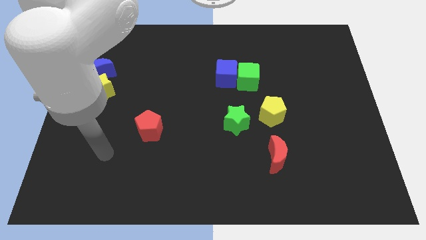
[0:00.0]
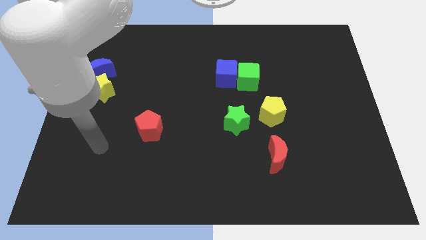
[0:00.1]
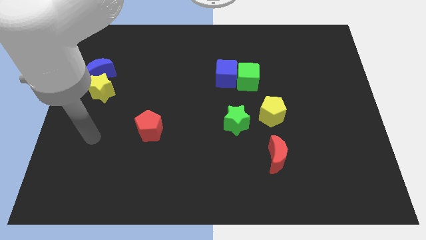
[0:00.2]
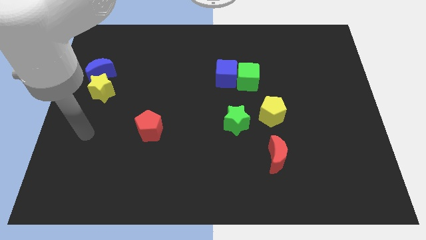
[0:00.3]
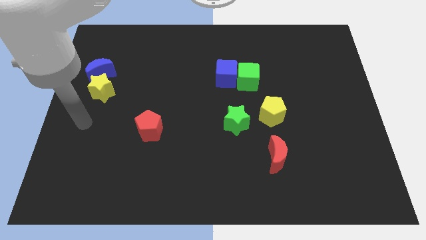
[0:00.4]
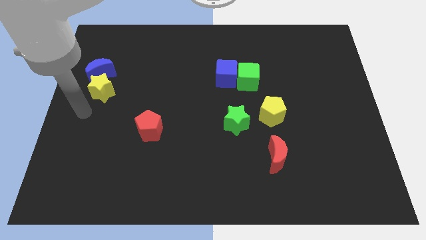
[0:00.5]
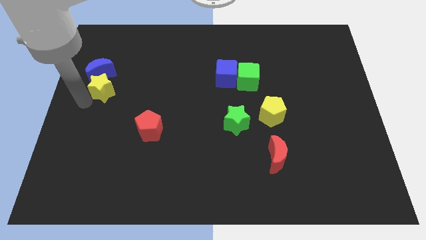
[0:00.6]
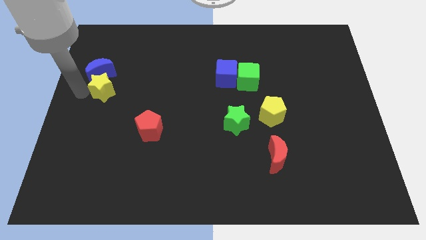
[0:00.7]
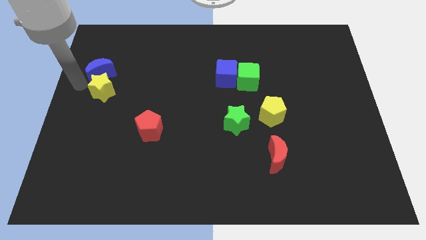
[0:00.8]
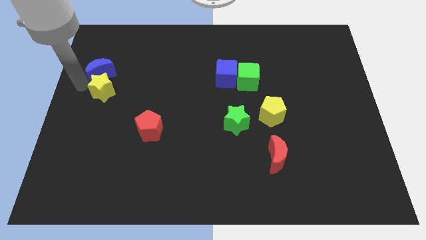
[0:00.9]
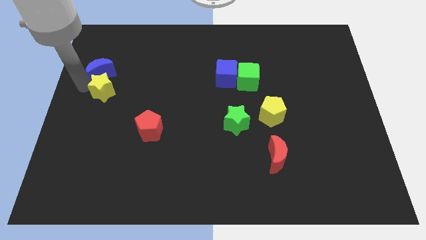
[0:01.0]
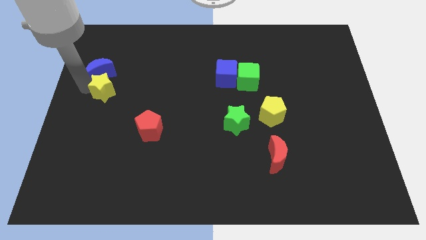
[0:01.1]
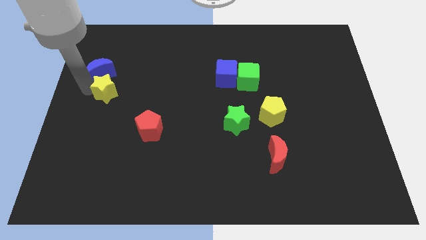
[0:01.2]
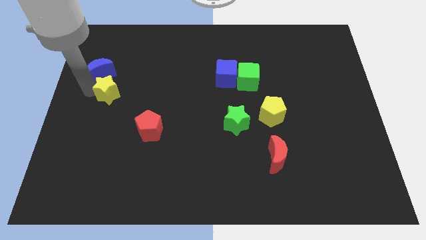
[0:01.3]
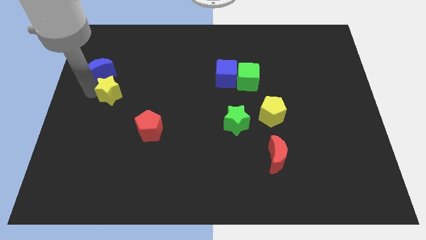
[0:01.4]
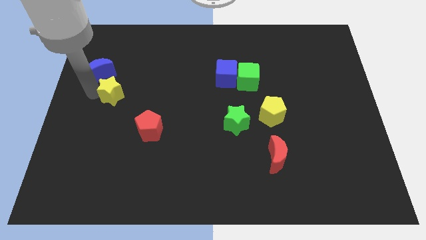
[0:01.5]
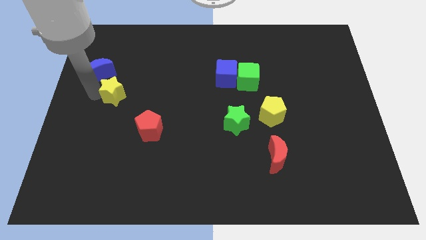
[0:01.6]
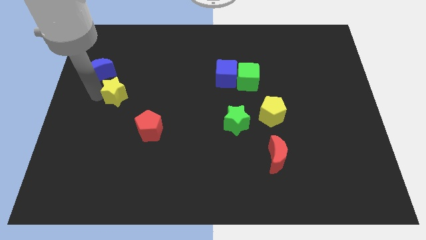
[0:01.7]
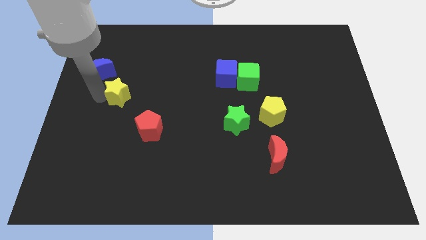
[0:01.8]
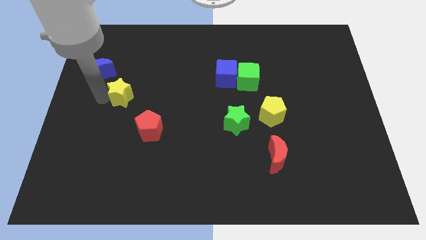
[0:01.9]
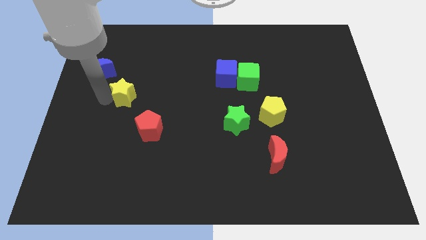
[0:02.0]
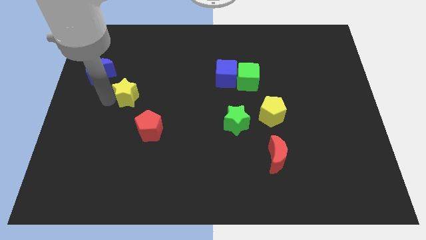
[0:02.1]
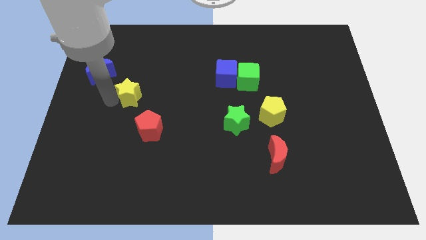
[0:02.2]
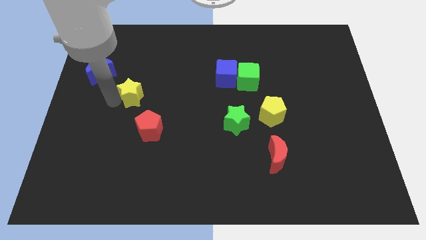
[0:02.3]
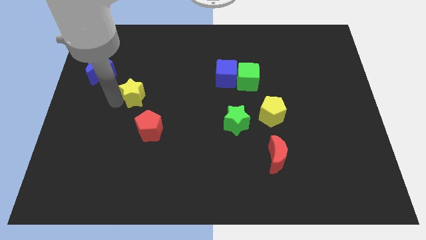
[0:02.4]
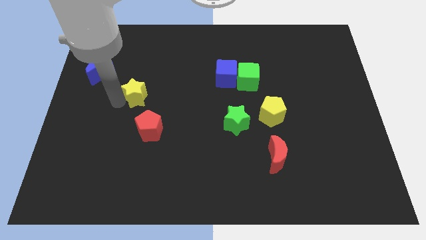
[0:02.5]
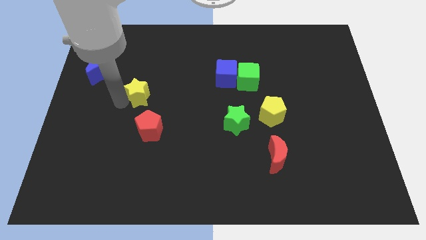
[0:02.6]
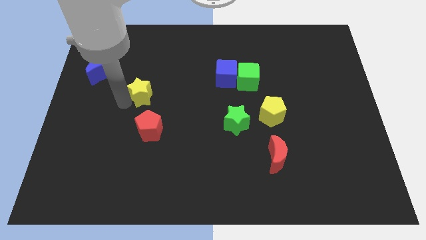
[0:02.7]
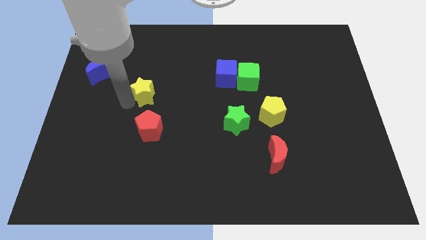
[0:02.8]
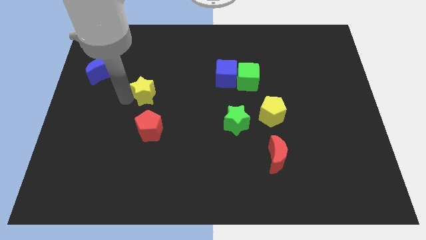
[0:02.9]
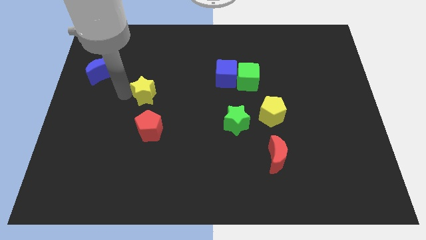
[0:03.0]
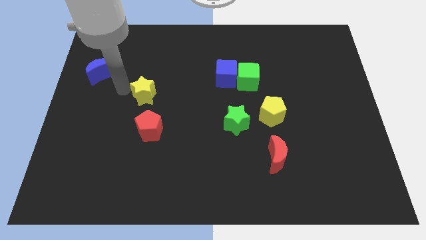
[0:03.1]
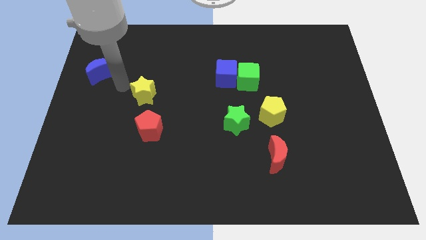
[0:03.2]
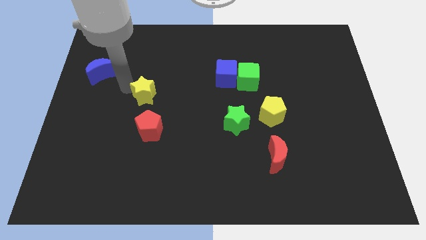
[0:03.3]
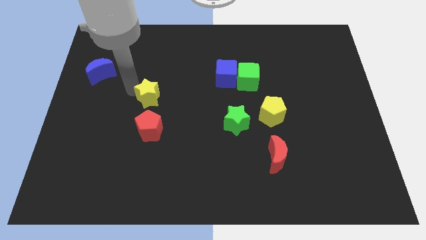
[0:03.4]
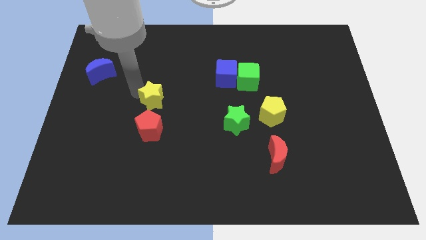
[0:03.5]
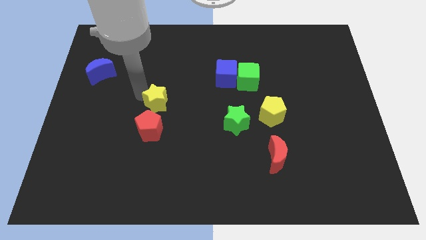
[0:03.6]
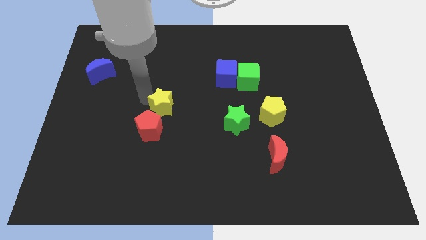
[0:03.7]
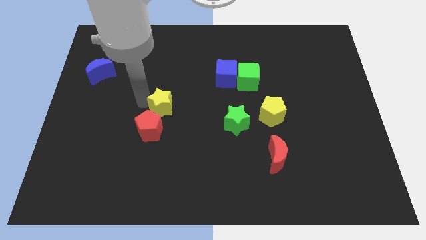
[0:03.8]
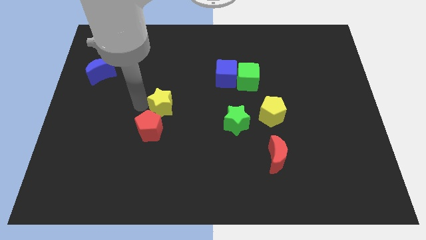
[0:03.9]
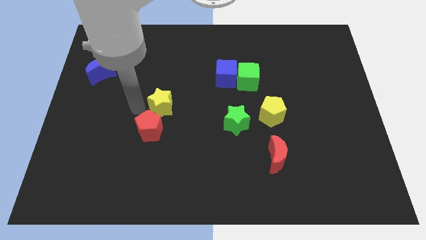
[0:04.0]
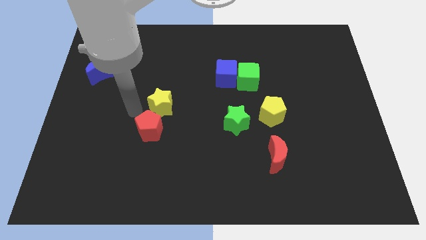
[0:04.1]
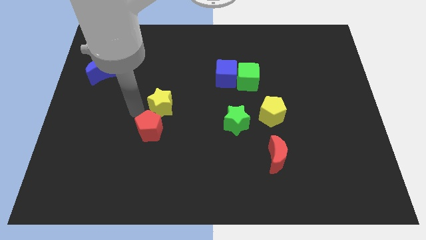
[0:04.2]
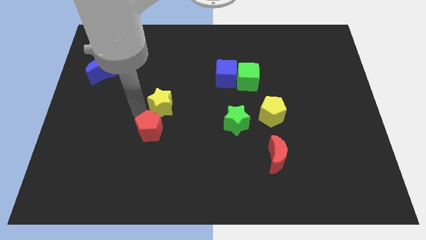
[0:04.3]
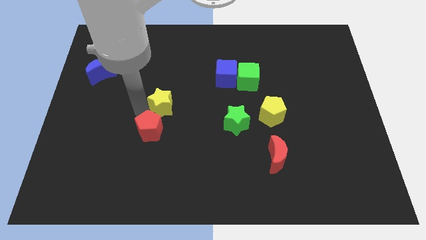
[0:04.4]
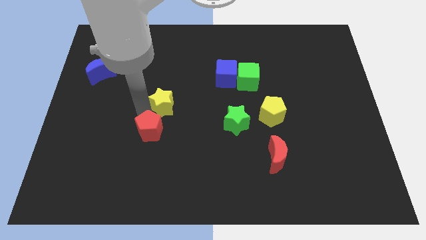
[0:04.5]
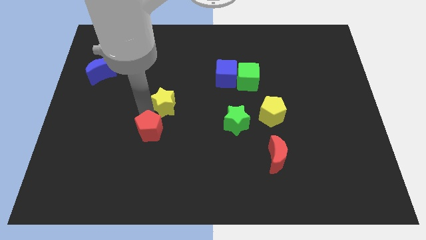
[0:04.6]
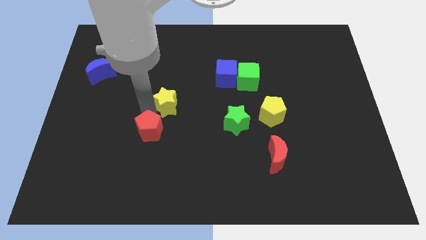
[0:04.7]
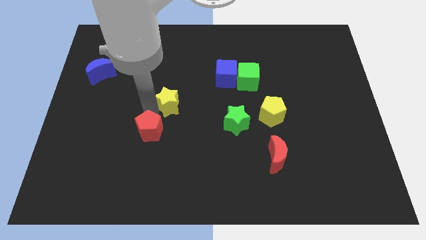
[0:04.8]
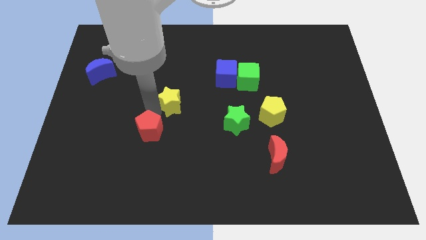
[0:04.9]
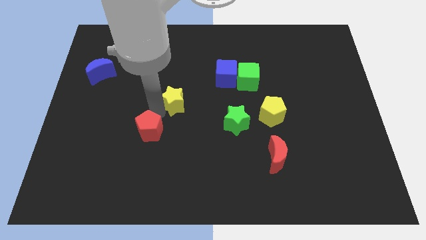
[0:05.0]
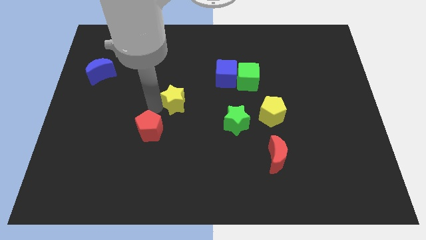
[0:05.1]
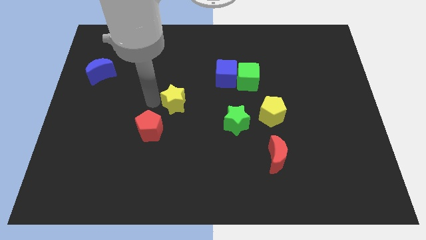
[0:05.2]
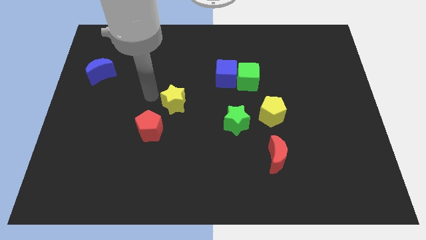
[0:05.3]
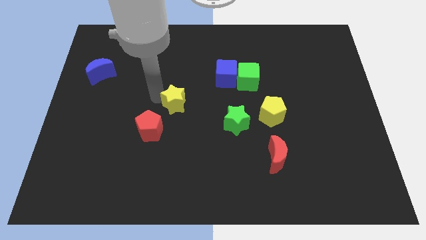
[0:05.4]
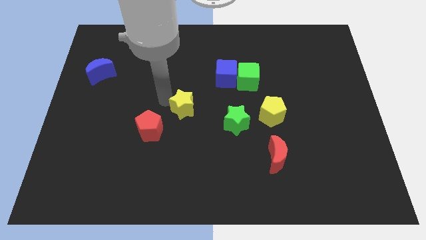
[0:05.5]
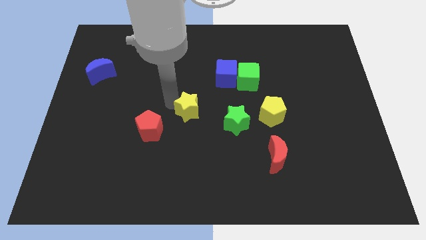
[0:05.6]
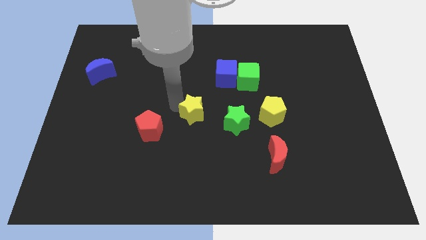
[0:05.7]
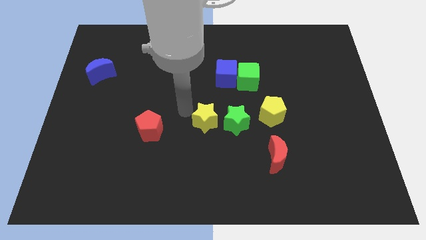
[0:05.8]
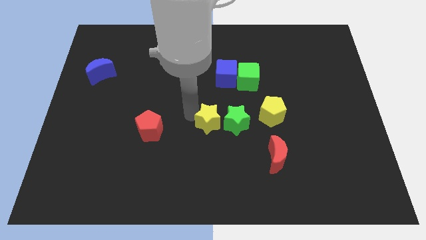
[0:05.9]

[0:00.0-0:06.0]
put the yellow star next to the green star

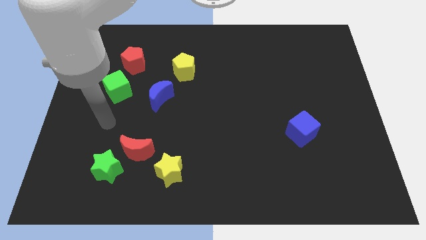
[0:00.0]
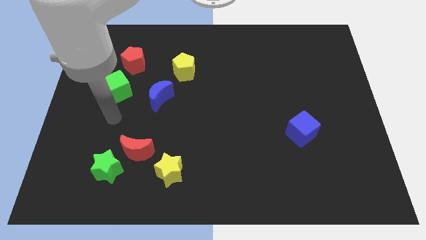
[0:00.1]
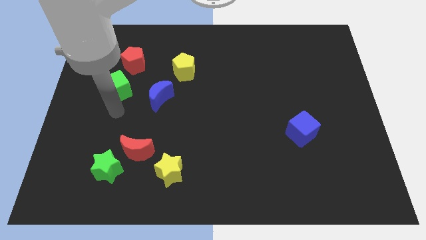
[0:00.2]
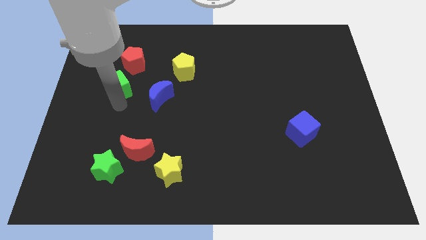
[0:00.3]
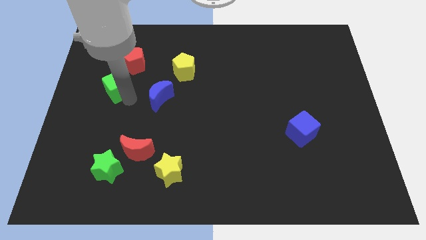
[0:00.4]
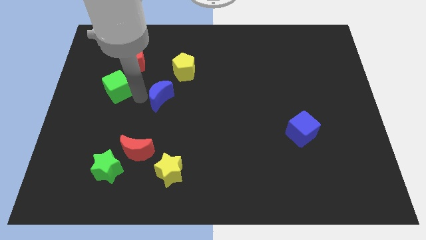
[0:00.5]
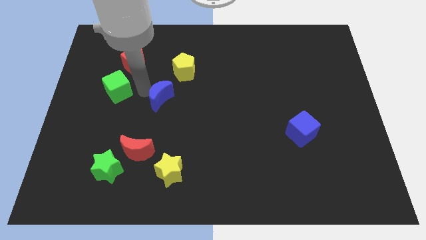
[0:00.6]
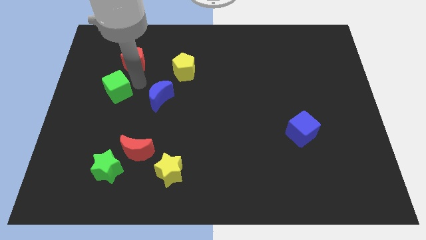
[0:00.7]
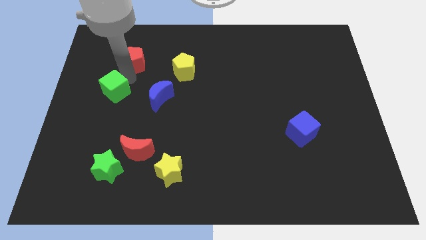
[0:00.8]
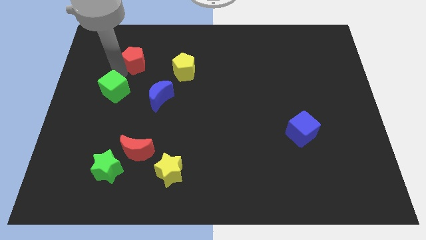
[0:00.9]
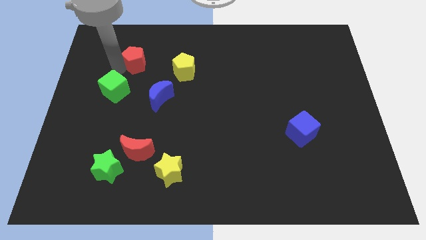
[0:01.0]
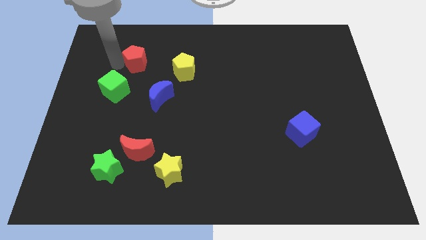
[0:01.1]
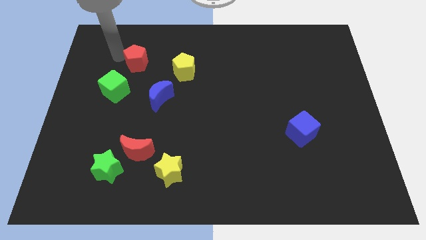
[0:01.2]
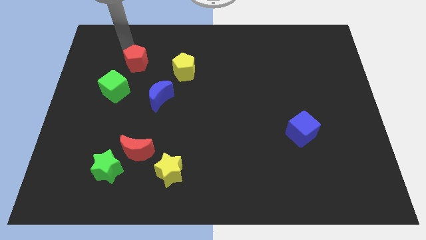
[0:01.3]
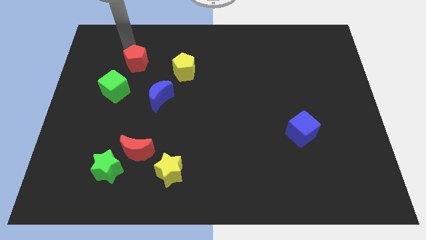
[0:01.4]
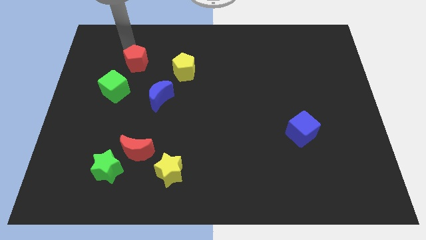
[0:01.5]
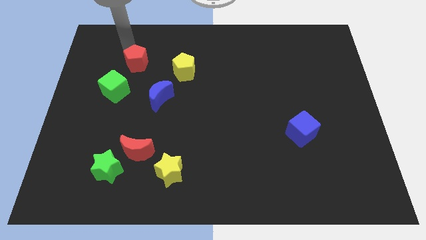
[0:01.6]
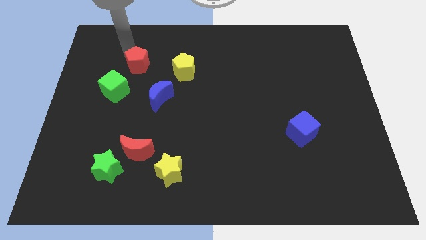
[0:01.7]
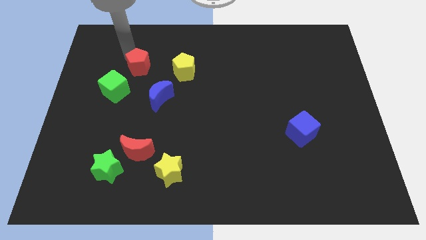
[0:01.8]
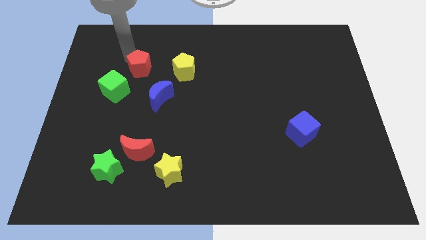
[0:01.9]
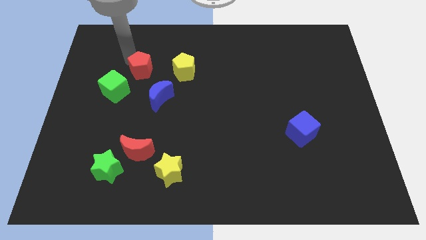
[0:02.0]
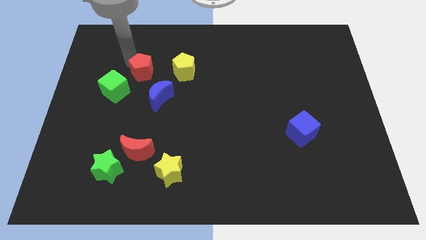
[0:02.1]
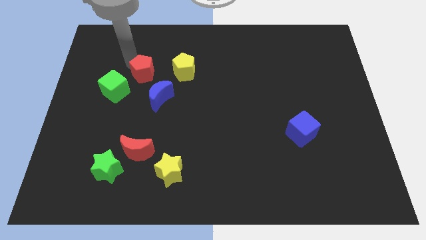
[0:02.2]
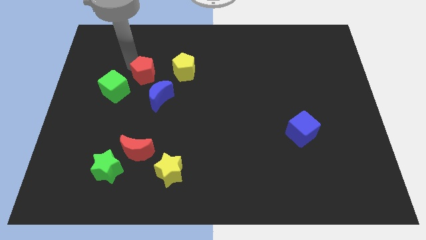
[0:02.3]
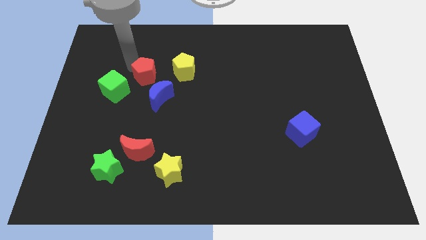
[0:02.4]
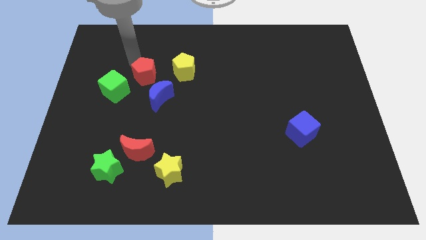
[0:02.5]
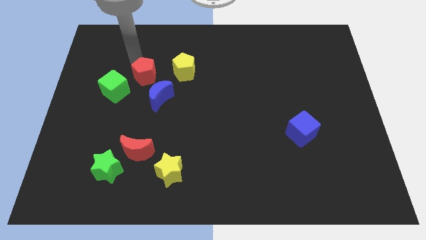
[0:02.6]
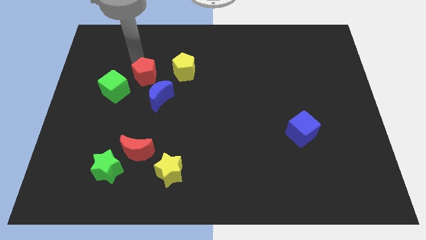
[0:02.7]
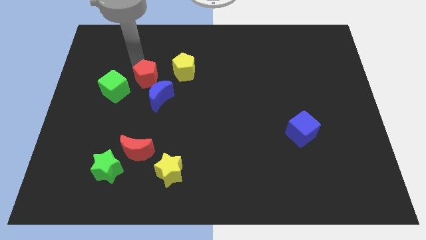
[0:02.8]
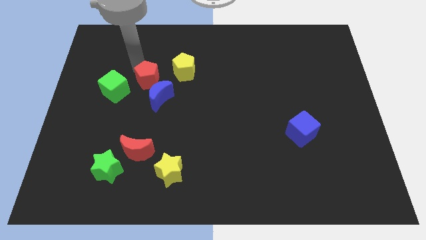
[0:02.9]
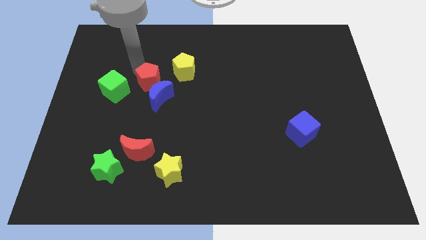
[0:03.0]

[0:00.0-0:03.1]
slide the red pentagon towards the blue moon
